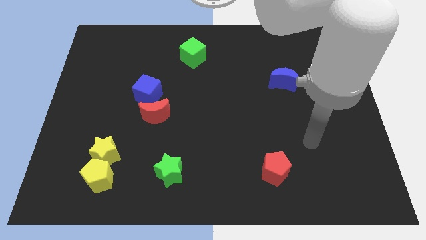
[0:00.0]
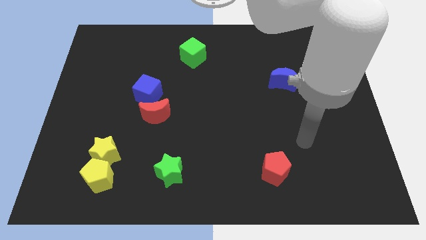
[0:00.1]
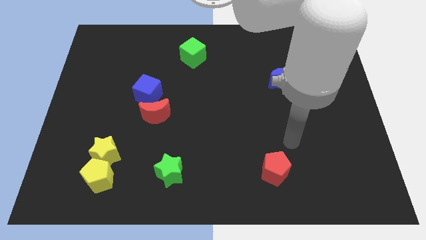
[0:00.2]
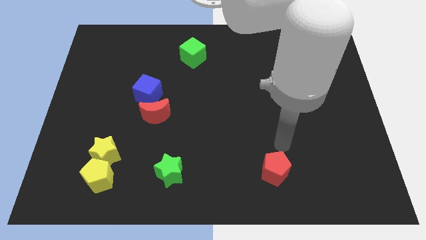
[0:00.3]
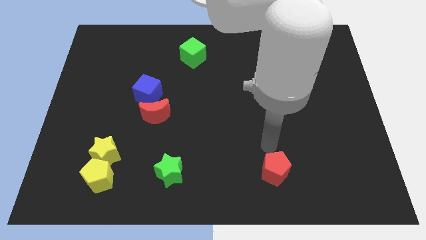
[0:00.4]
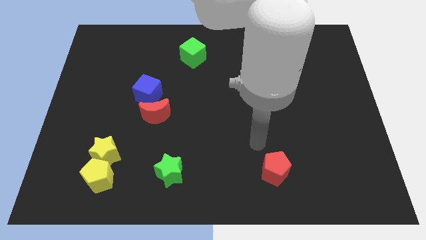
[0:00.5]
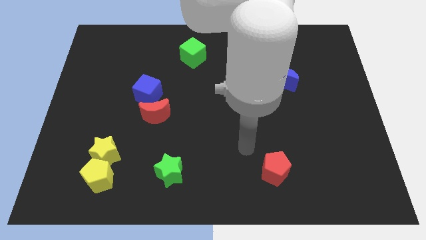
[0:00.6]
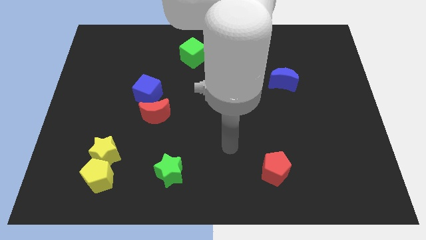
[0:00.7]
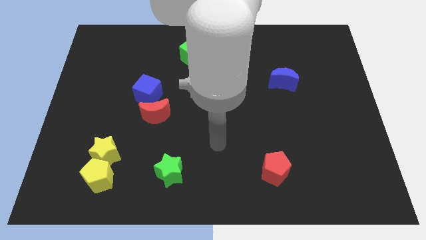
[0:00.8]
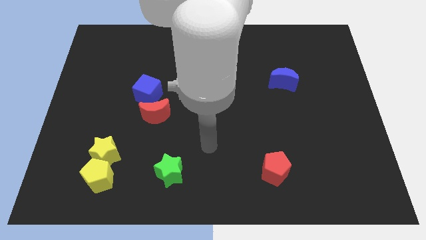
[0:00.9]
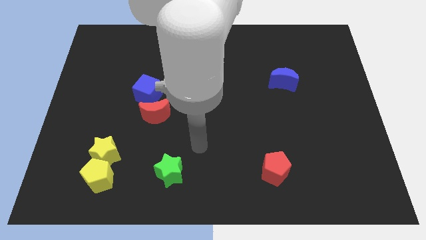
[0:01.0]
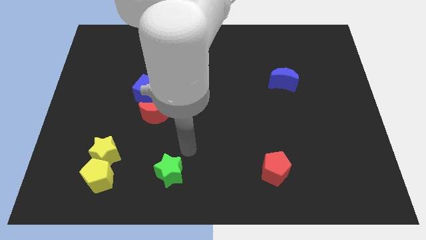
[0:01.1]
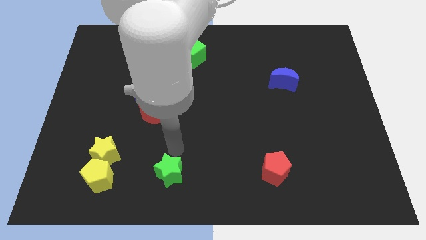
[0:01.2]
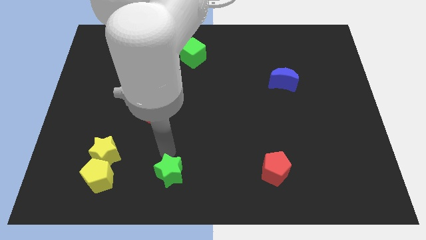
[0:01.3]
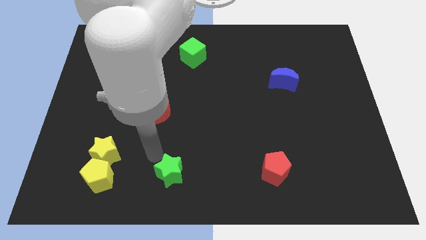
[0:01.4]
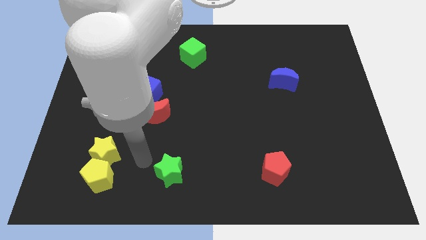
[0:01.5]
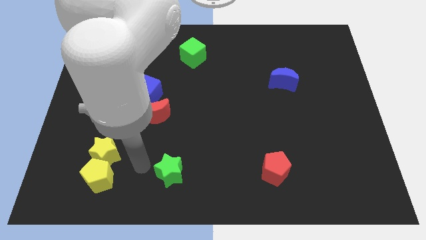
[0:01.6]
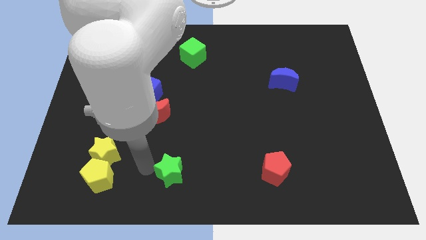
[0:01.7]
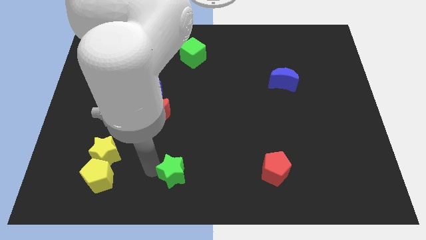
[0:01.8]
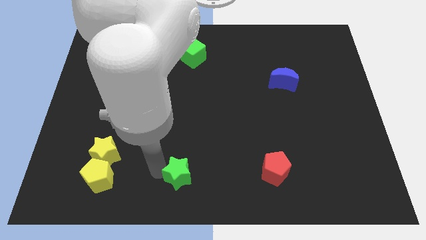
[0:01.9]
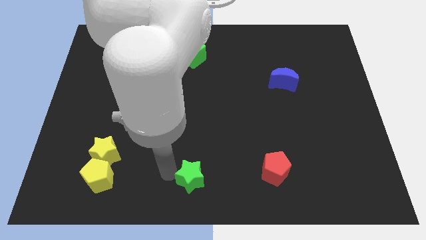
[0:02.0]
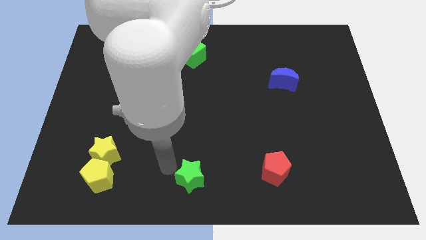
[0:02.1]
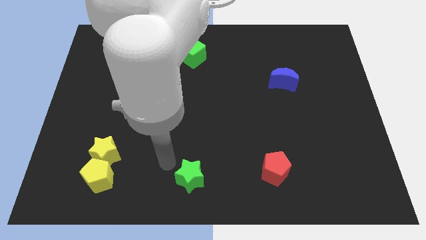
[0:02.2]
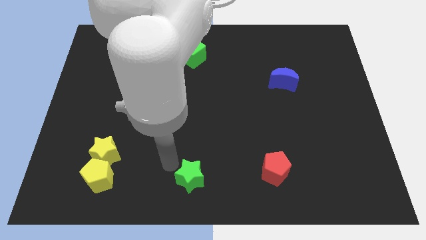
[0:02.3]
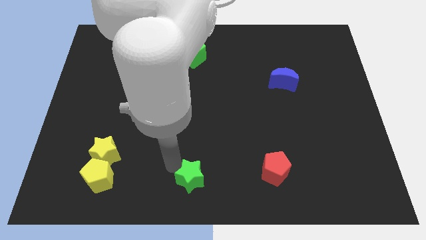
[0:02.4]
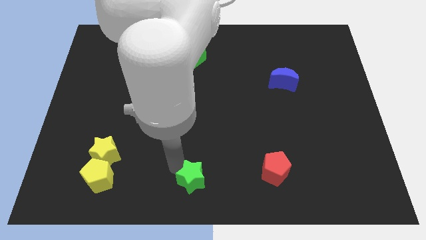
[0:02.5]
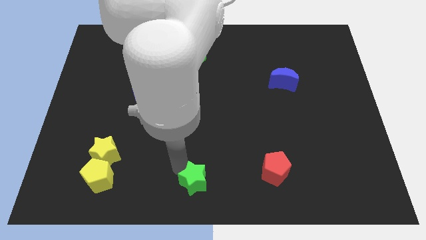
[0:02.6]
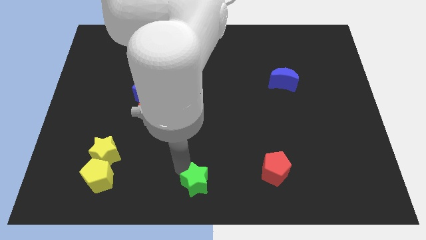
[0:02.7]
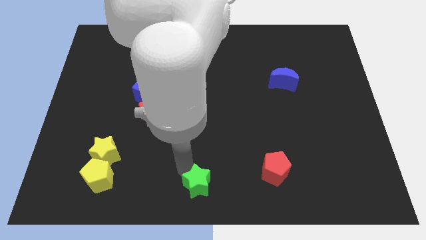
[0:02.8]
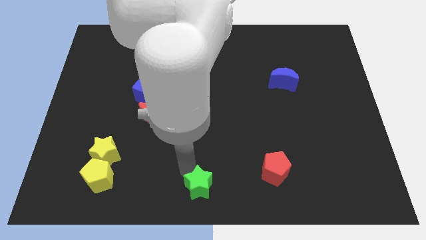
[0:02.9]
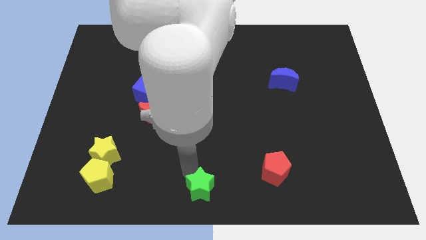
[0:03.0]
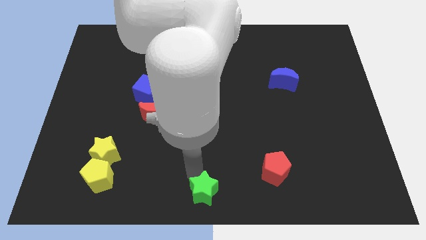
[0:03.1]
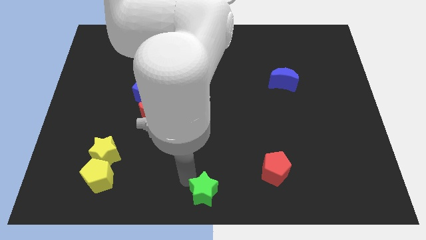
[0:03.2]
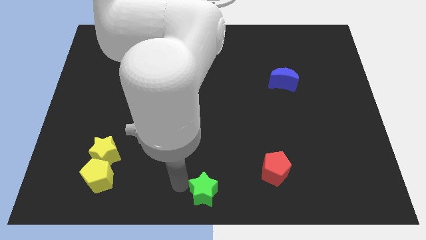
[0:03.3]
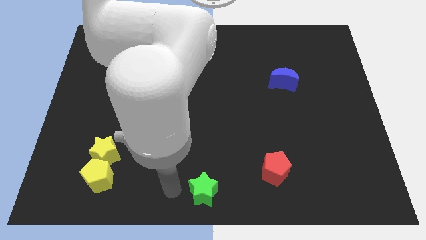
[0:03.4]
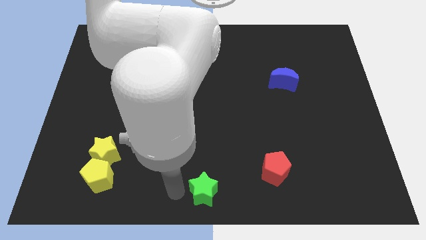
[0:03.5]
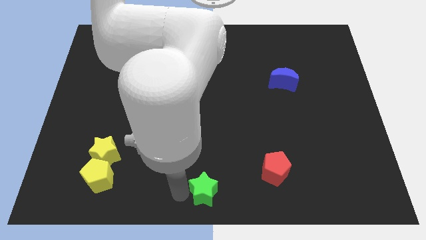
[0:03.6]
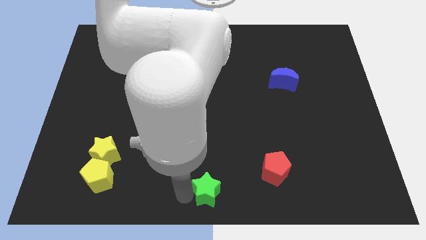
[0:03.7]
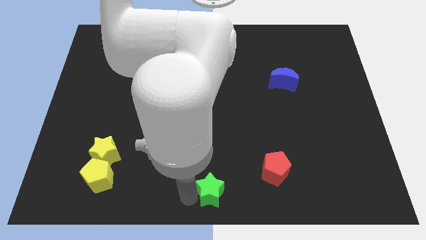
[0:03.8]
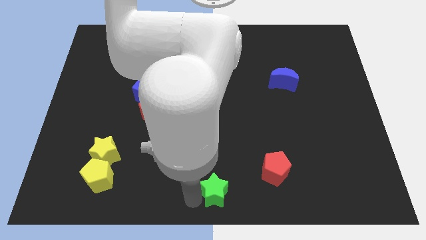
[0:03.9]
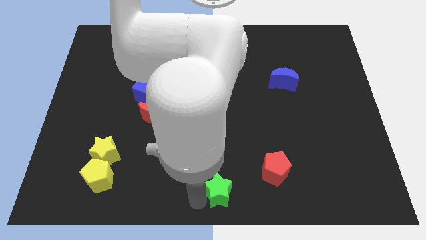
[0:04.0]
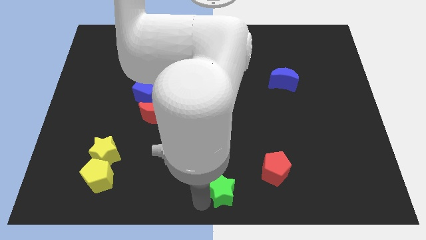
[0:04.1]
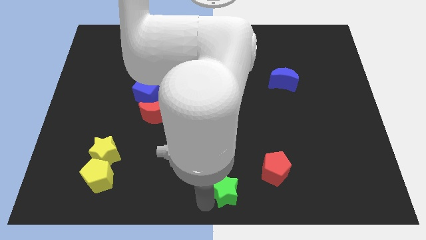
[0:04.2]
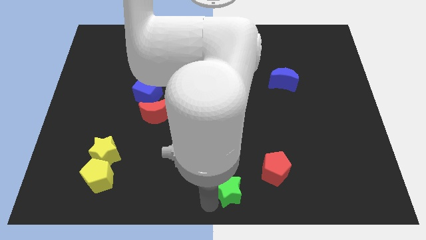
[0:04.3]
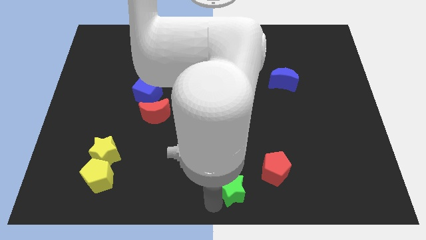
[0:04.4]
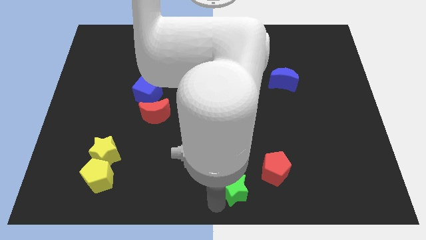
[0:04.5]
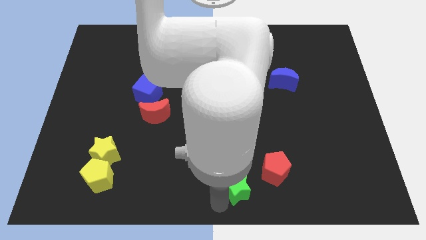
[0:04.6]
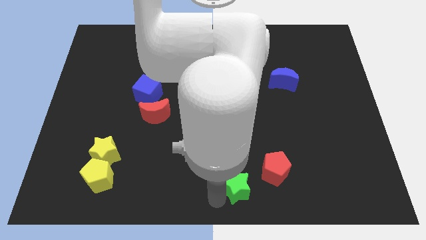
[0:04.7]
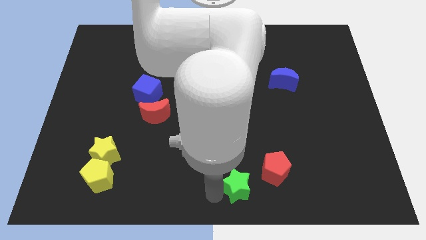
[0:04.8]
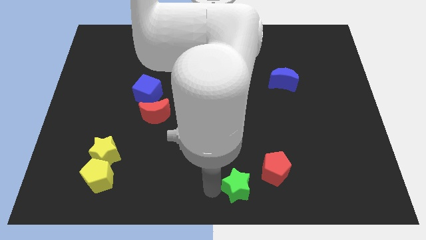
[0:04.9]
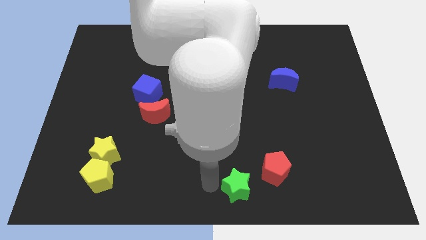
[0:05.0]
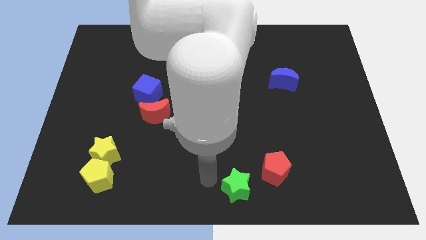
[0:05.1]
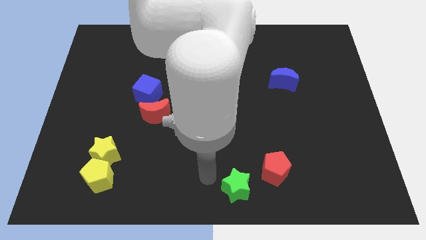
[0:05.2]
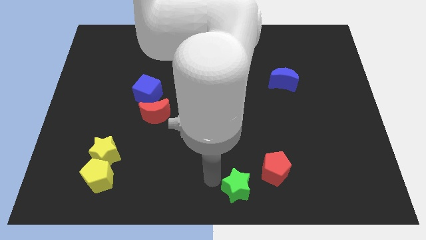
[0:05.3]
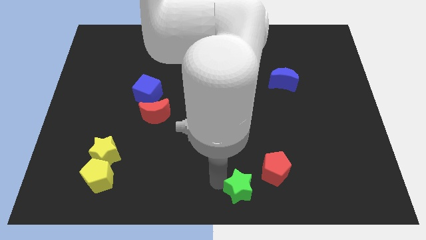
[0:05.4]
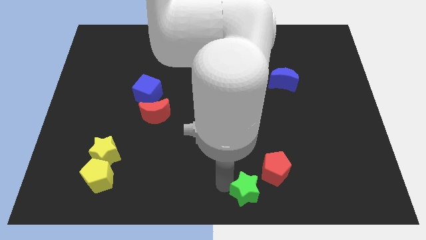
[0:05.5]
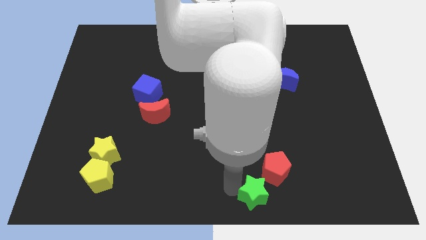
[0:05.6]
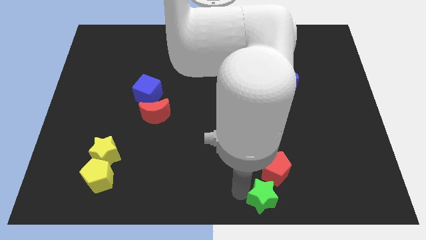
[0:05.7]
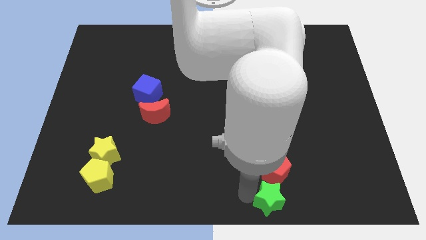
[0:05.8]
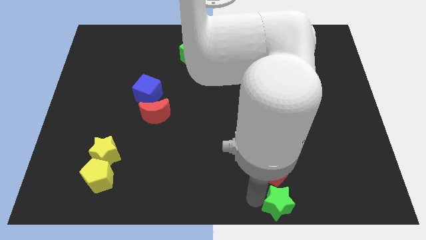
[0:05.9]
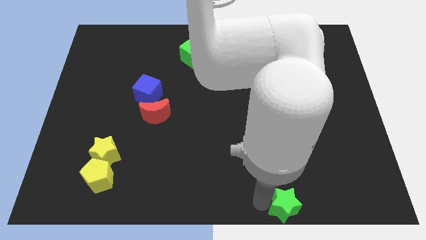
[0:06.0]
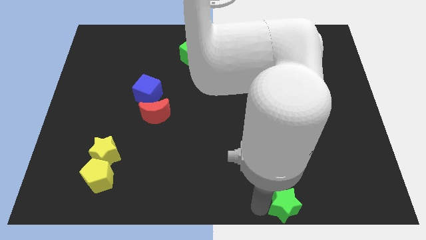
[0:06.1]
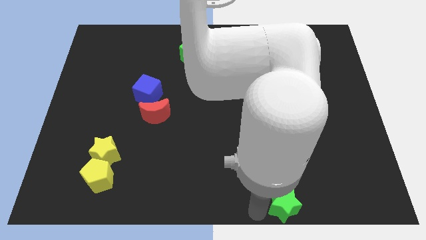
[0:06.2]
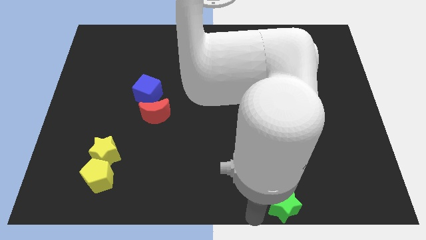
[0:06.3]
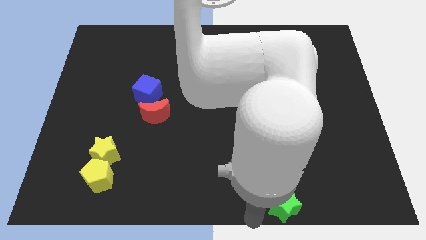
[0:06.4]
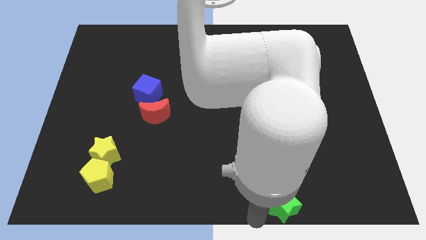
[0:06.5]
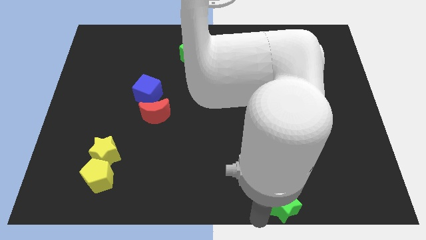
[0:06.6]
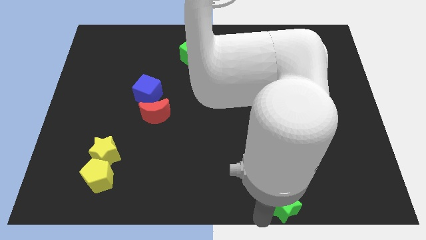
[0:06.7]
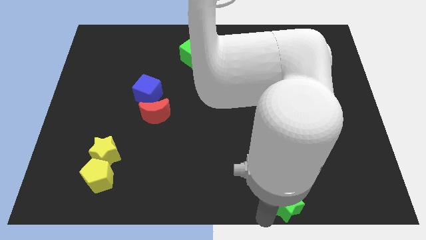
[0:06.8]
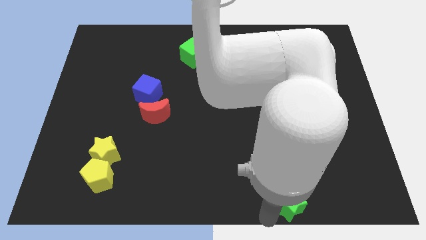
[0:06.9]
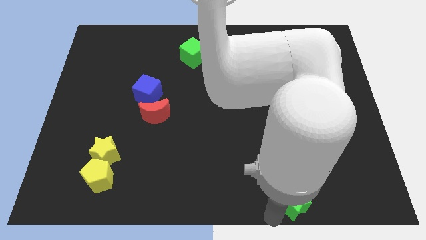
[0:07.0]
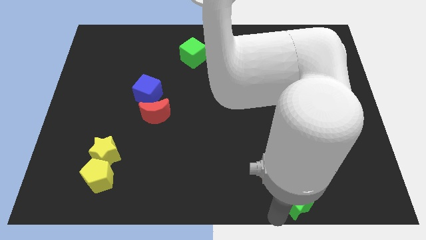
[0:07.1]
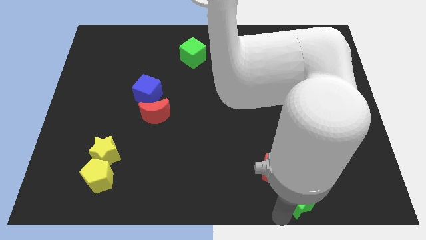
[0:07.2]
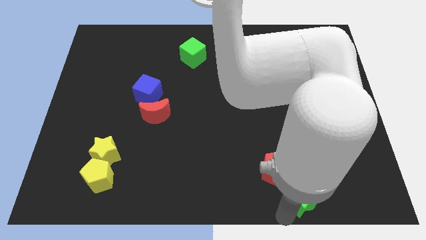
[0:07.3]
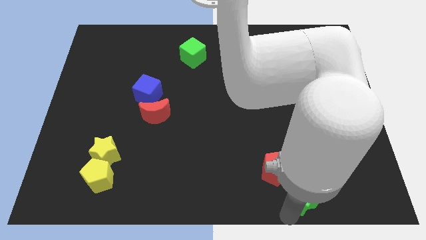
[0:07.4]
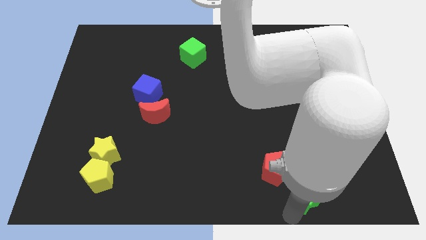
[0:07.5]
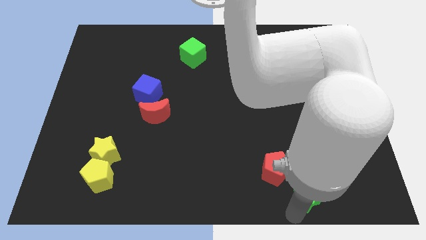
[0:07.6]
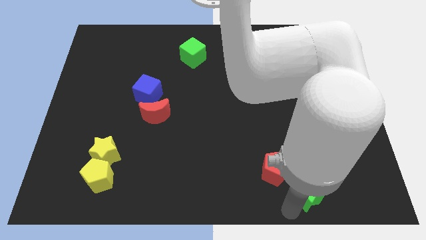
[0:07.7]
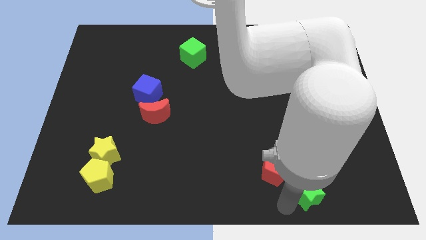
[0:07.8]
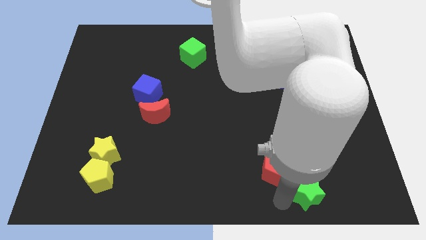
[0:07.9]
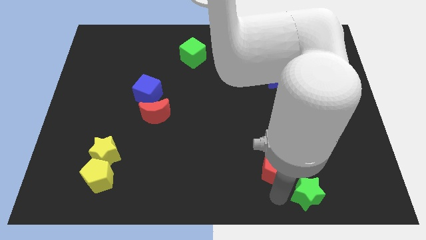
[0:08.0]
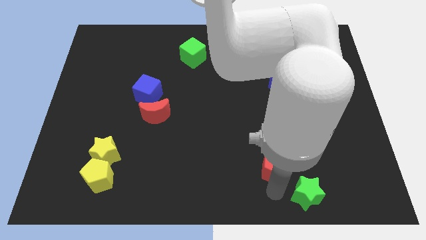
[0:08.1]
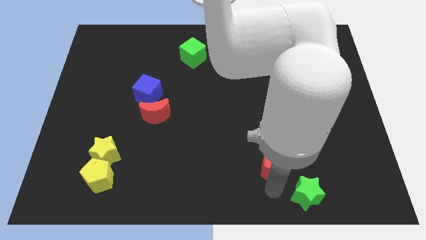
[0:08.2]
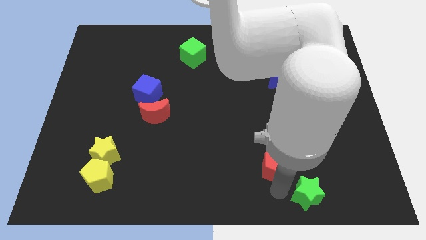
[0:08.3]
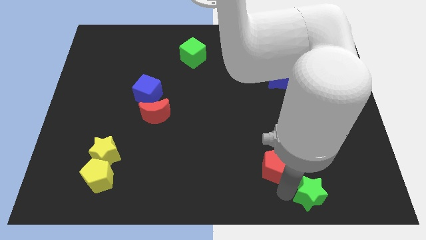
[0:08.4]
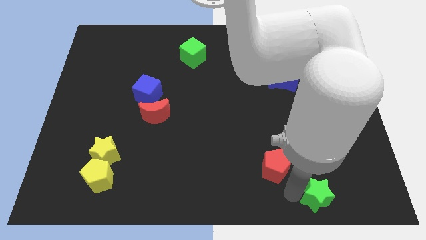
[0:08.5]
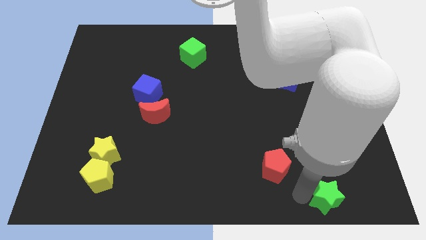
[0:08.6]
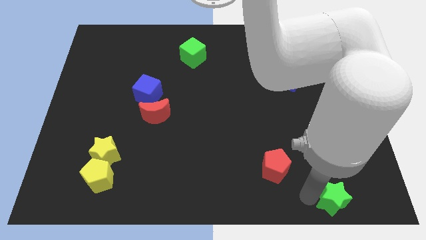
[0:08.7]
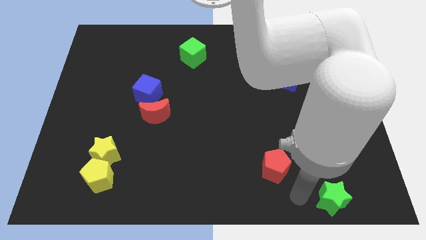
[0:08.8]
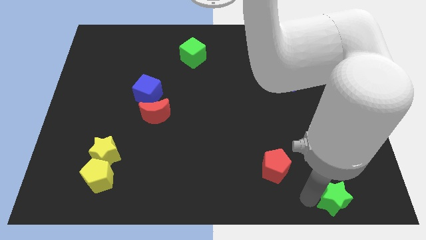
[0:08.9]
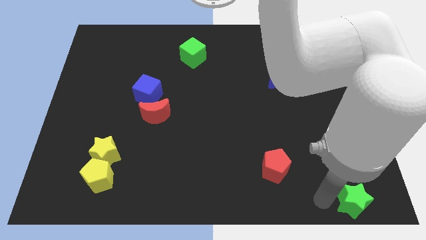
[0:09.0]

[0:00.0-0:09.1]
push the green star to the lower right corner
